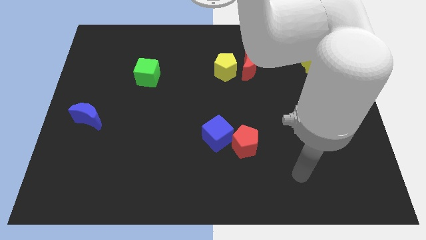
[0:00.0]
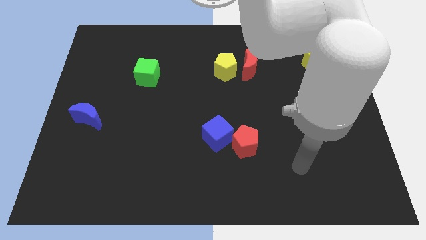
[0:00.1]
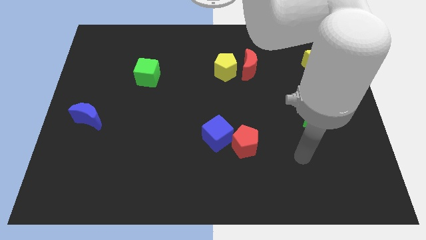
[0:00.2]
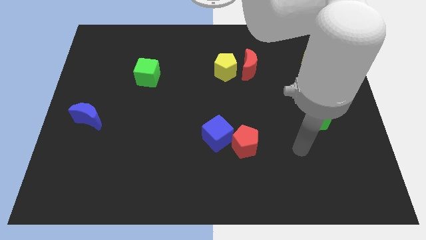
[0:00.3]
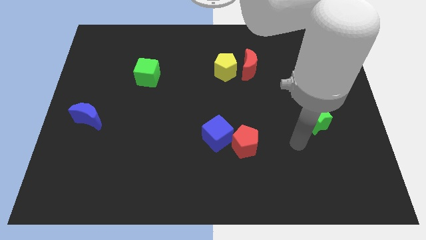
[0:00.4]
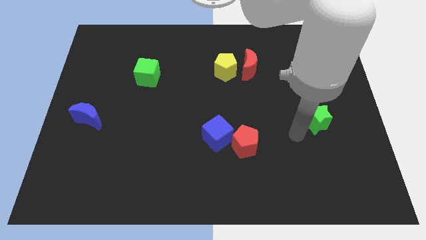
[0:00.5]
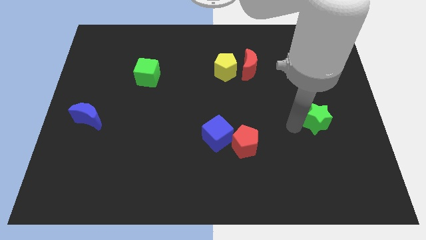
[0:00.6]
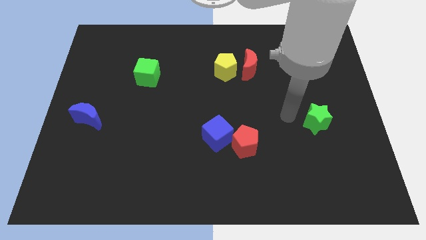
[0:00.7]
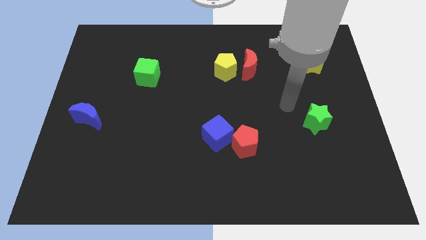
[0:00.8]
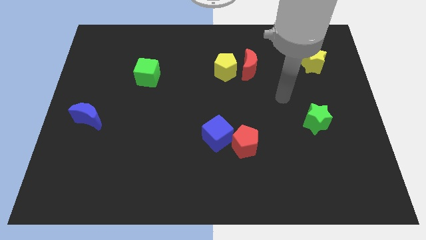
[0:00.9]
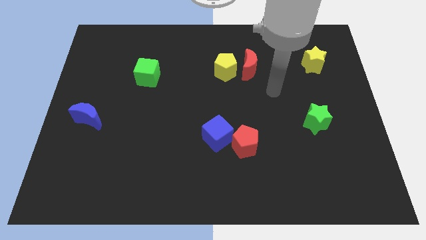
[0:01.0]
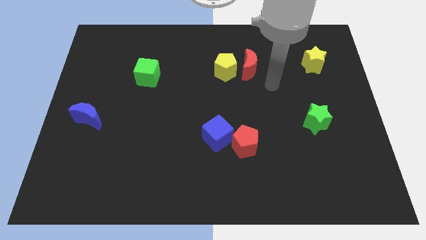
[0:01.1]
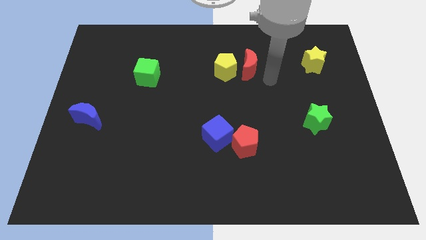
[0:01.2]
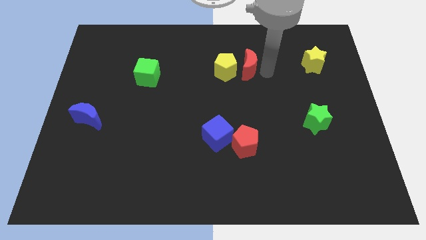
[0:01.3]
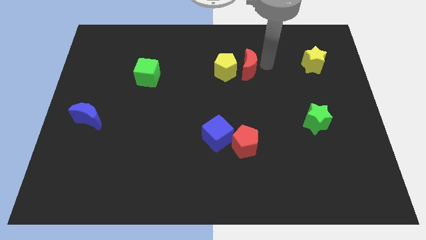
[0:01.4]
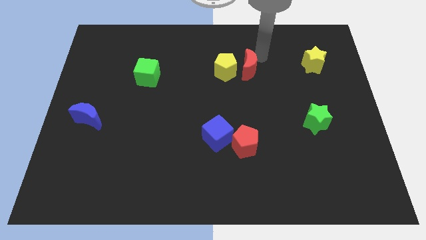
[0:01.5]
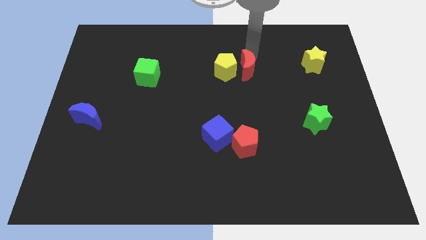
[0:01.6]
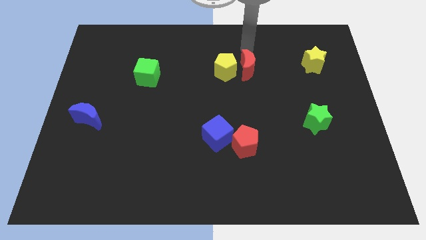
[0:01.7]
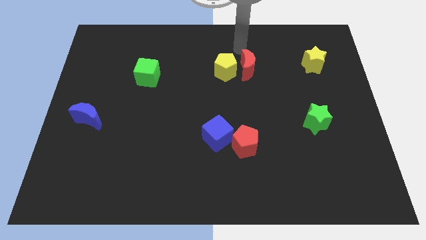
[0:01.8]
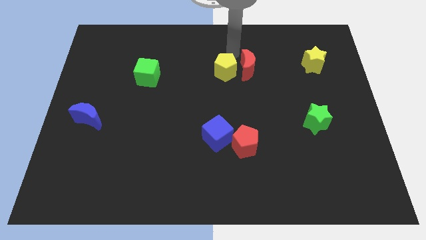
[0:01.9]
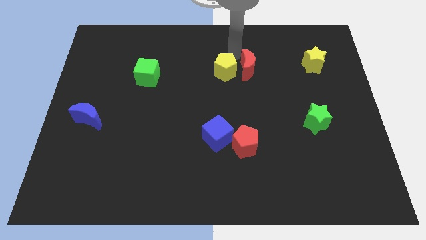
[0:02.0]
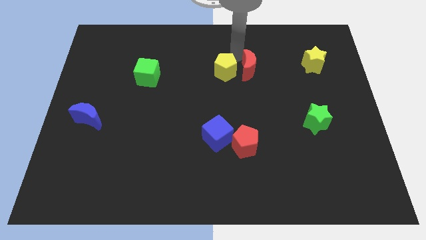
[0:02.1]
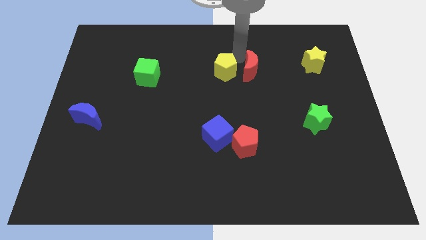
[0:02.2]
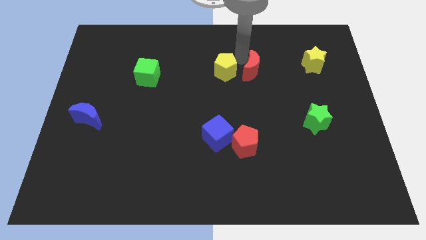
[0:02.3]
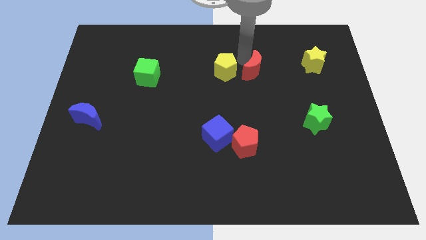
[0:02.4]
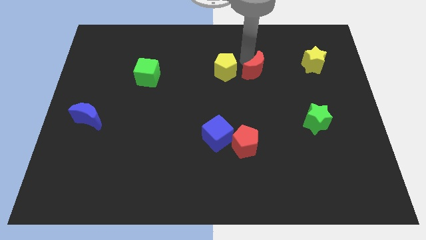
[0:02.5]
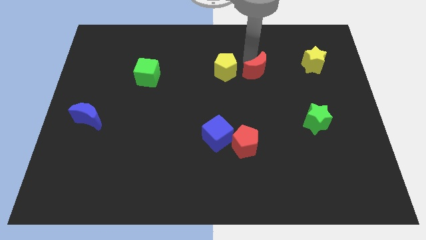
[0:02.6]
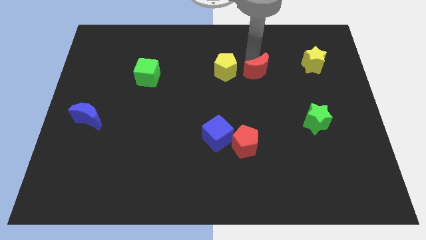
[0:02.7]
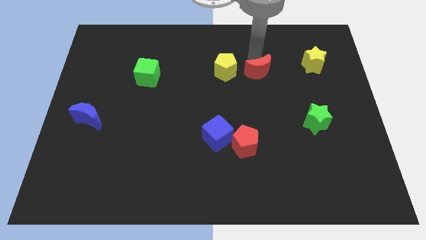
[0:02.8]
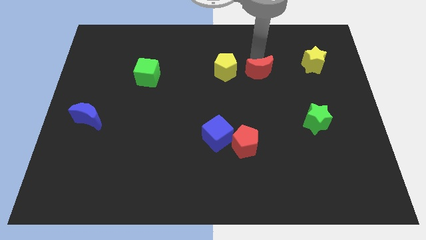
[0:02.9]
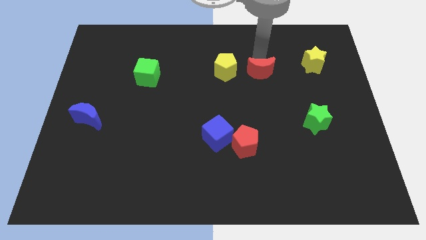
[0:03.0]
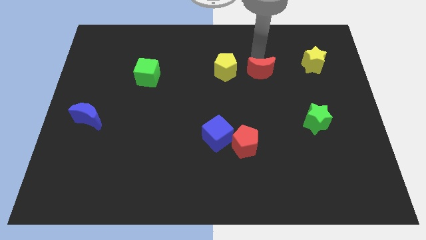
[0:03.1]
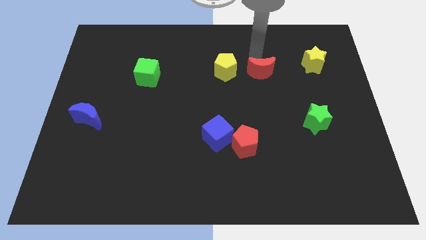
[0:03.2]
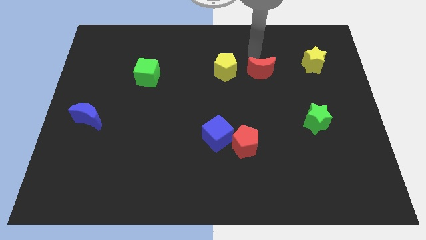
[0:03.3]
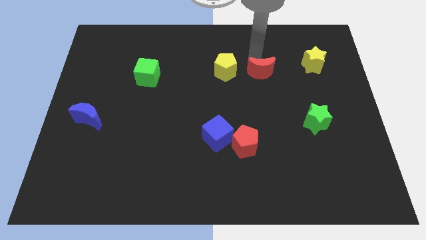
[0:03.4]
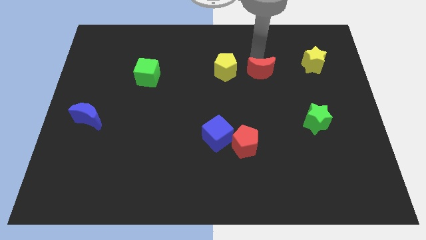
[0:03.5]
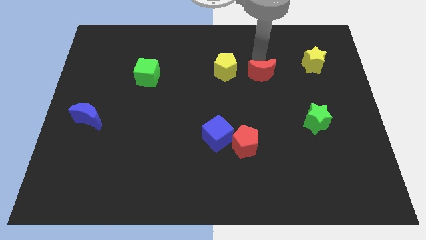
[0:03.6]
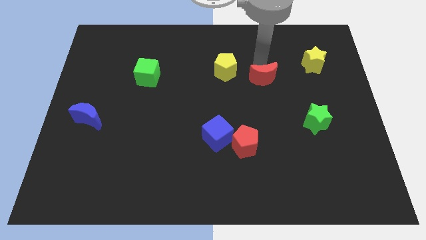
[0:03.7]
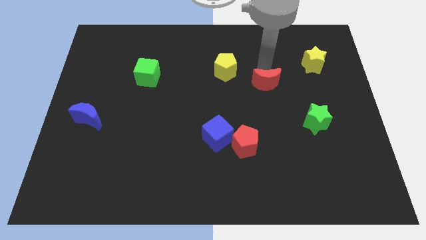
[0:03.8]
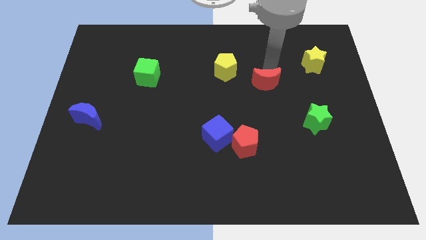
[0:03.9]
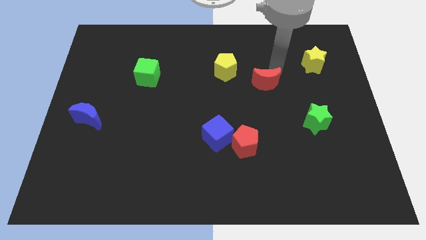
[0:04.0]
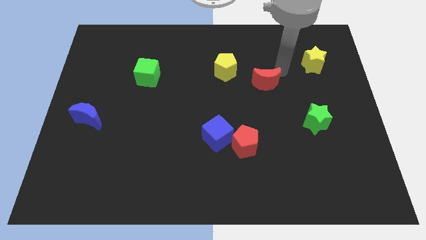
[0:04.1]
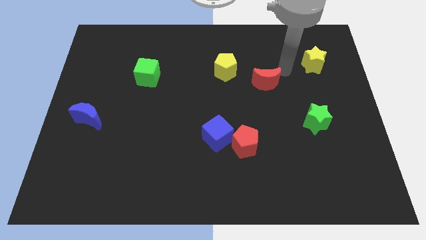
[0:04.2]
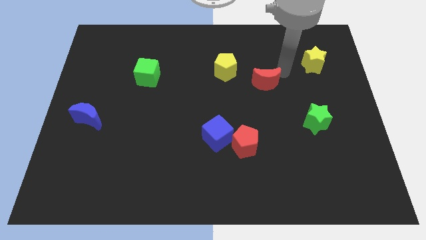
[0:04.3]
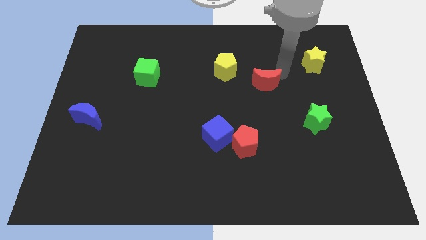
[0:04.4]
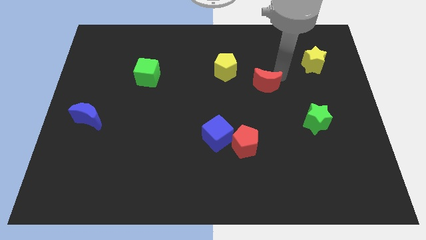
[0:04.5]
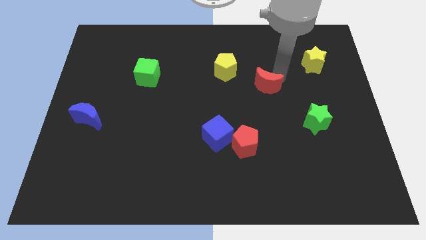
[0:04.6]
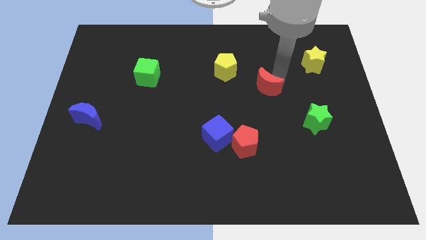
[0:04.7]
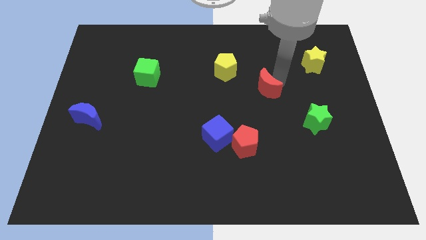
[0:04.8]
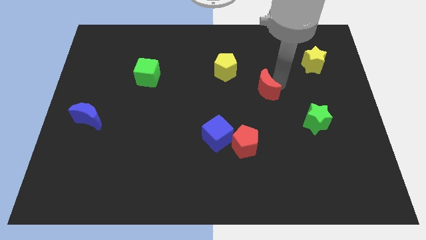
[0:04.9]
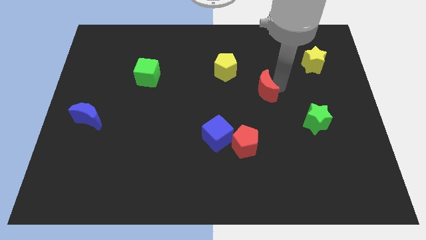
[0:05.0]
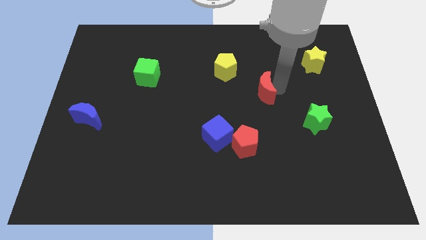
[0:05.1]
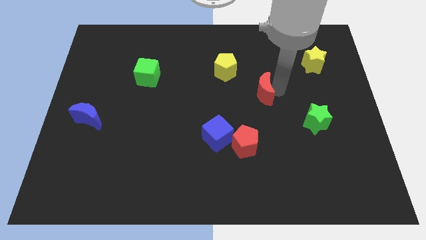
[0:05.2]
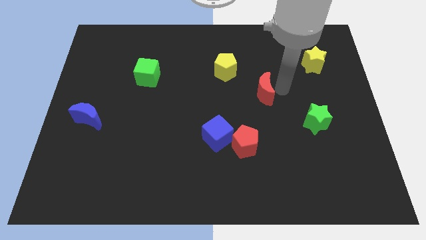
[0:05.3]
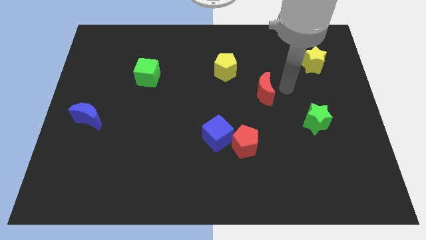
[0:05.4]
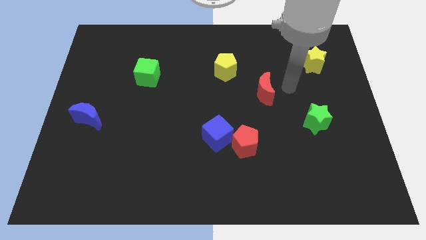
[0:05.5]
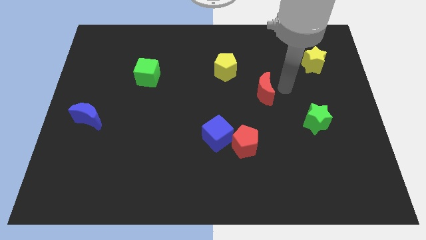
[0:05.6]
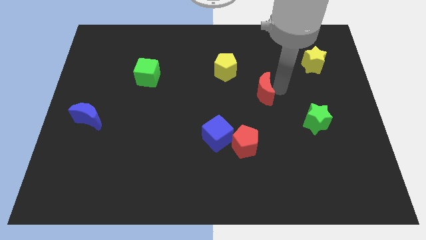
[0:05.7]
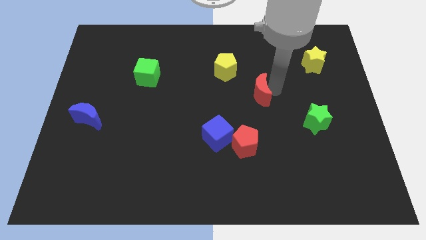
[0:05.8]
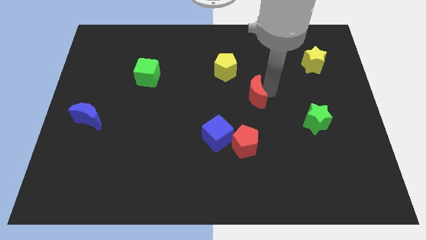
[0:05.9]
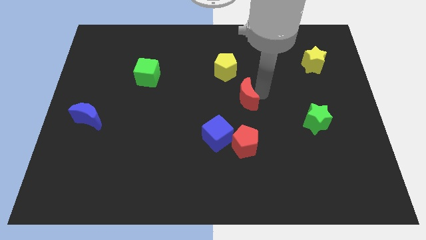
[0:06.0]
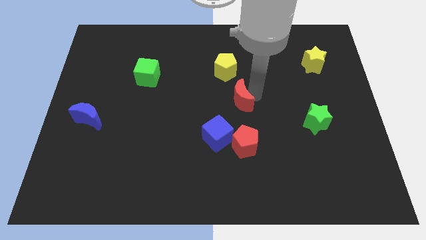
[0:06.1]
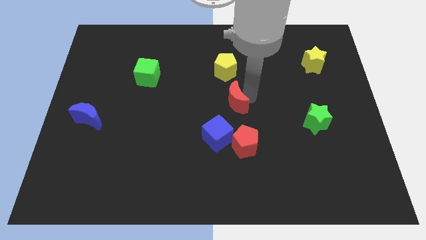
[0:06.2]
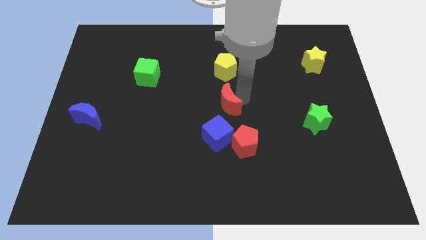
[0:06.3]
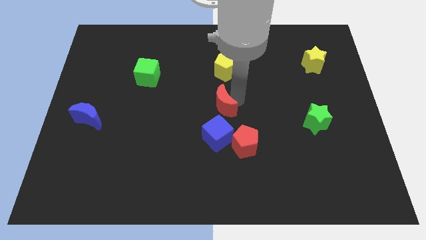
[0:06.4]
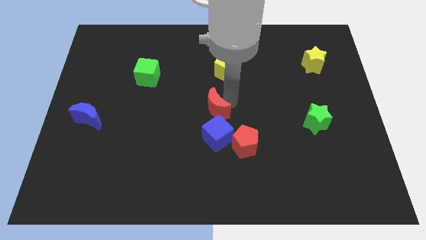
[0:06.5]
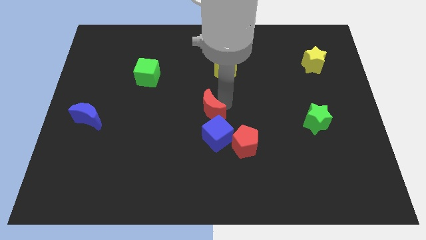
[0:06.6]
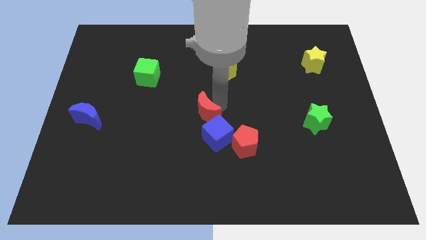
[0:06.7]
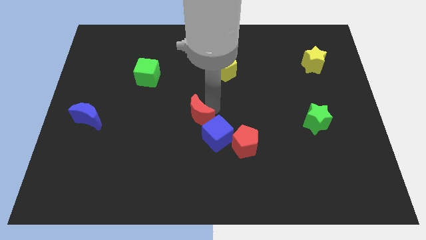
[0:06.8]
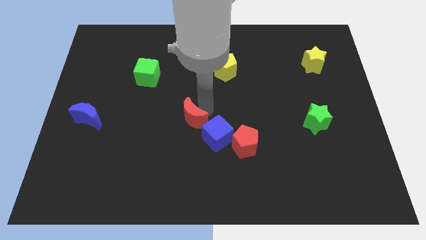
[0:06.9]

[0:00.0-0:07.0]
slide the red moon down and to the left diagonally

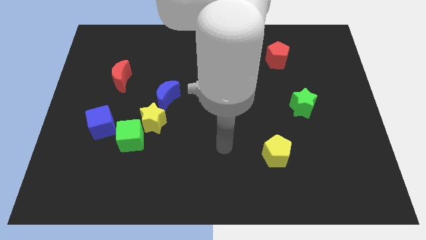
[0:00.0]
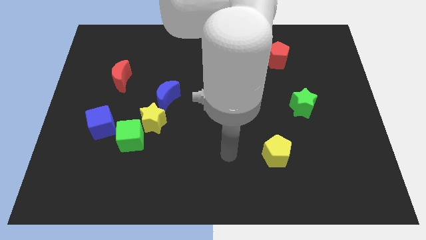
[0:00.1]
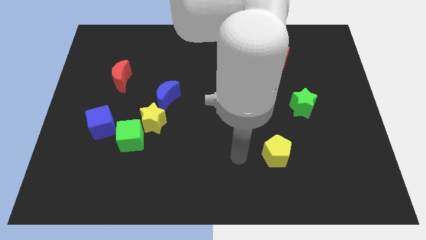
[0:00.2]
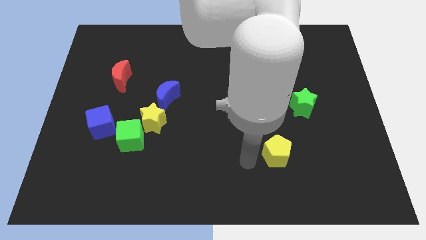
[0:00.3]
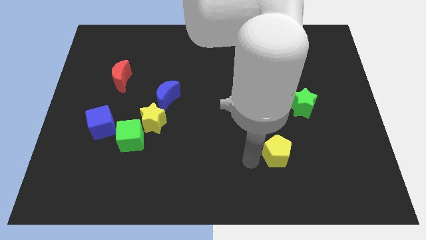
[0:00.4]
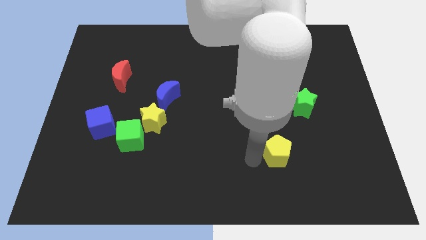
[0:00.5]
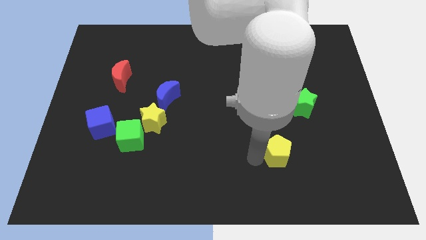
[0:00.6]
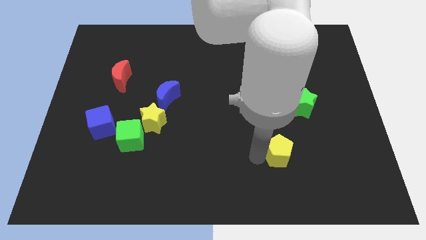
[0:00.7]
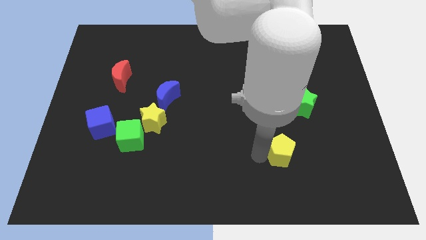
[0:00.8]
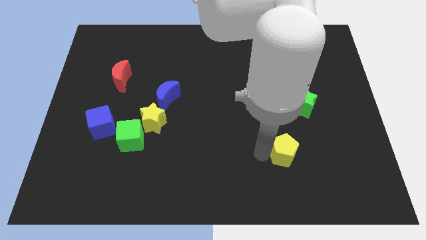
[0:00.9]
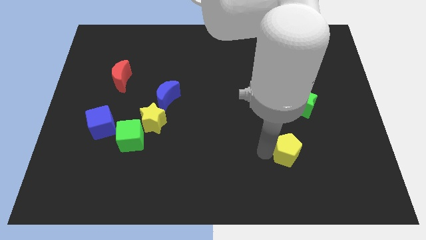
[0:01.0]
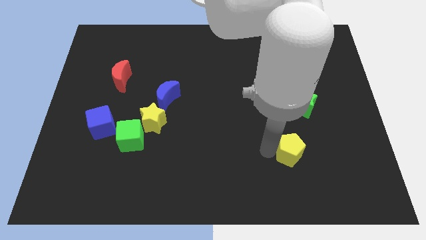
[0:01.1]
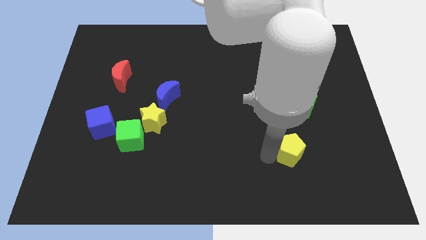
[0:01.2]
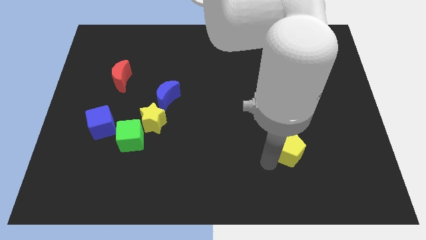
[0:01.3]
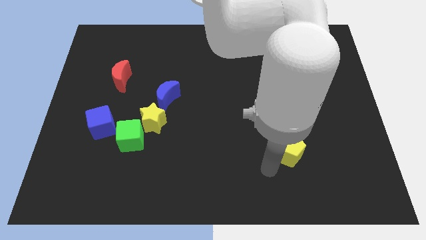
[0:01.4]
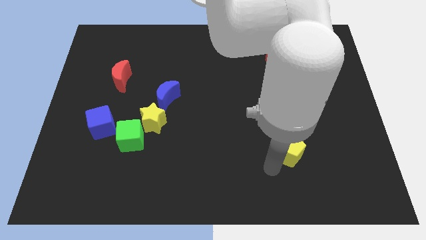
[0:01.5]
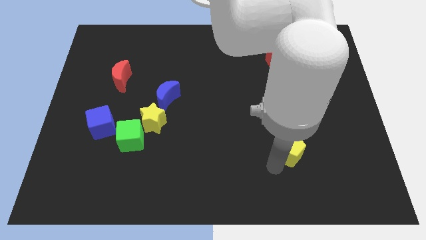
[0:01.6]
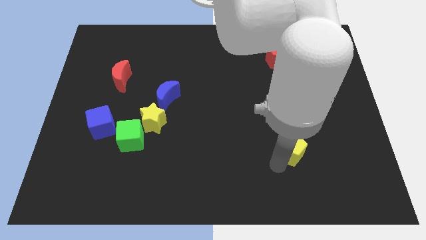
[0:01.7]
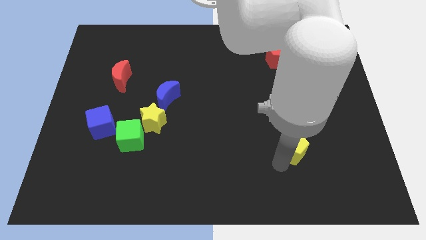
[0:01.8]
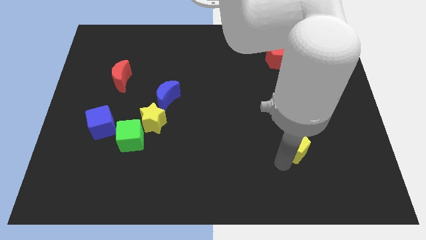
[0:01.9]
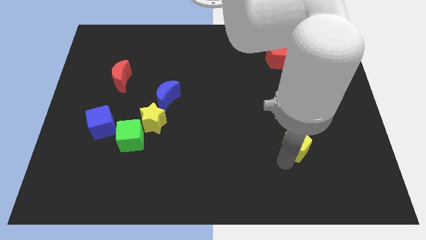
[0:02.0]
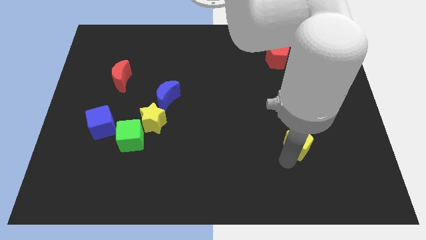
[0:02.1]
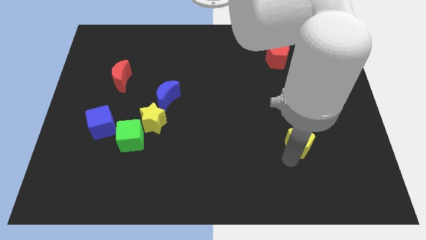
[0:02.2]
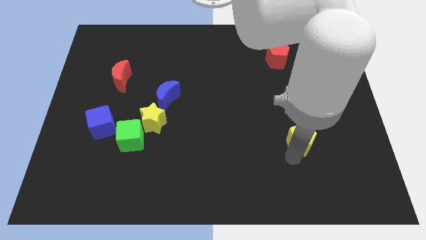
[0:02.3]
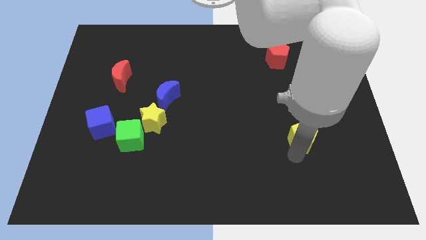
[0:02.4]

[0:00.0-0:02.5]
slide the yellow pentagon up and to the right diagonally a bit
